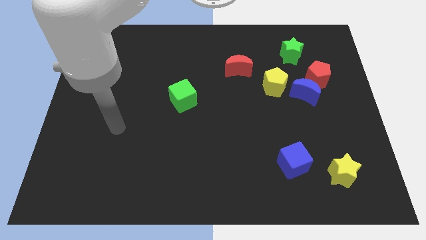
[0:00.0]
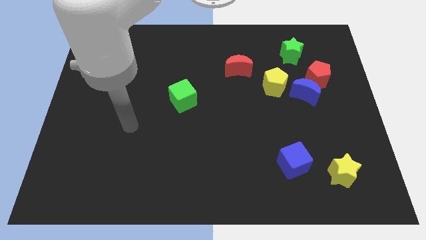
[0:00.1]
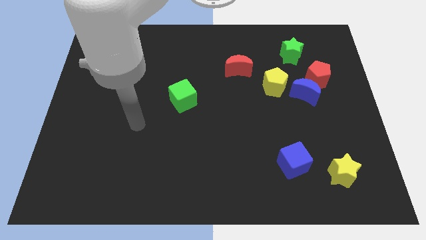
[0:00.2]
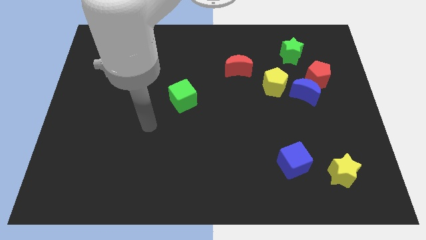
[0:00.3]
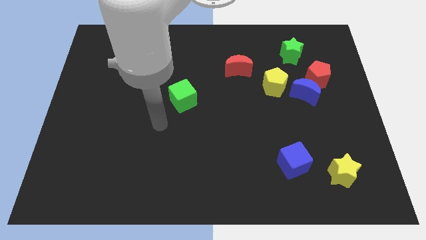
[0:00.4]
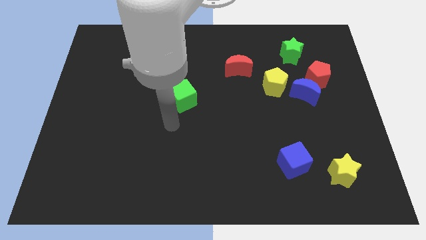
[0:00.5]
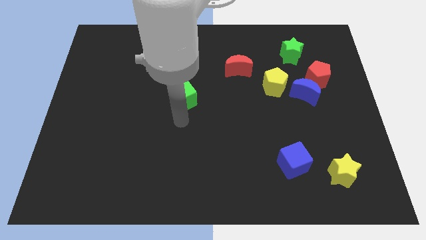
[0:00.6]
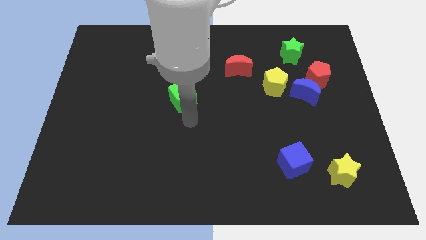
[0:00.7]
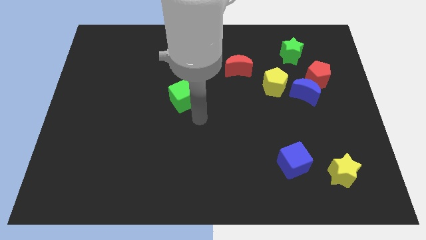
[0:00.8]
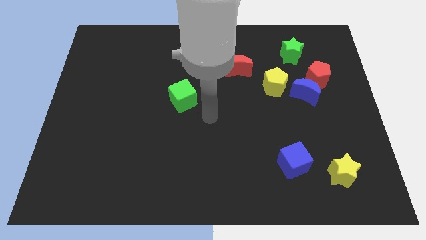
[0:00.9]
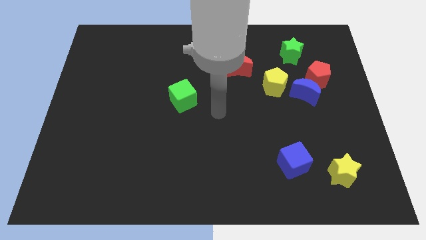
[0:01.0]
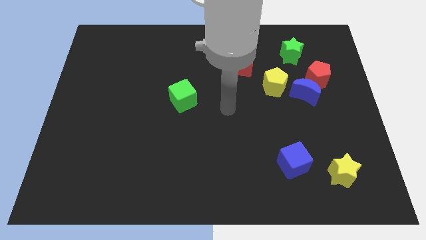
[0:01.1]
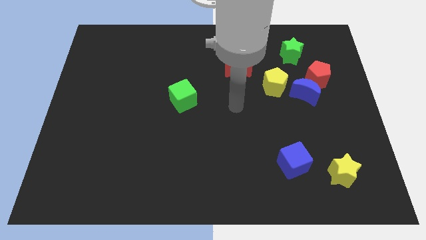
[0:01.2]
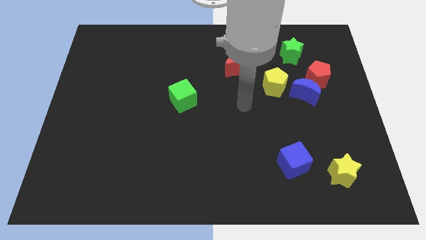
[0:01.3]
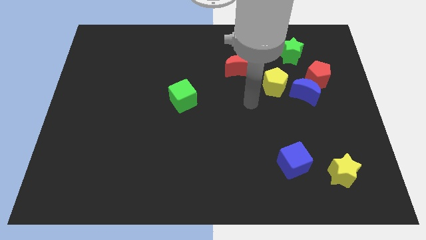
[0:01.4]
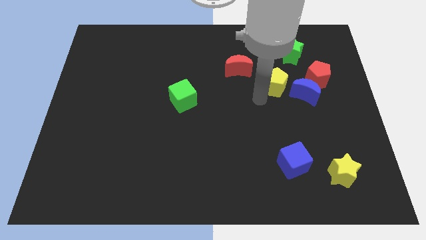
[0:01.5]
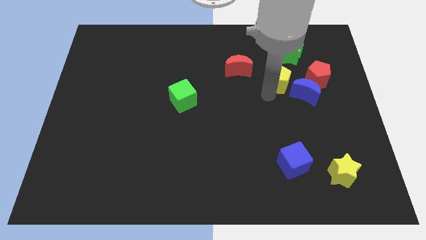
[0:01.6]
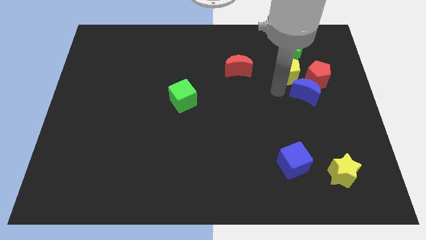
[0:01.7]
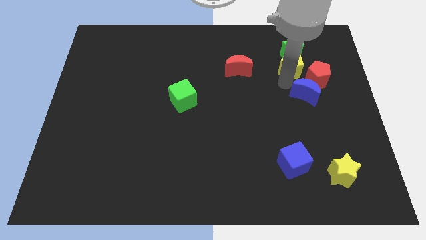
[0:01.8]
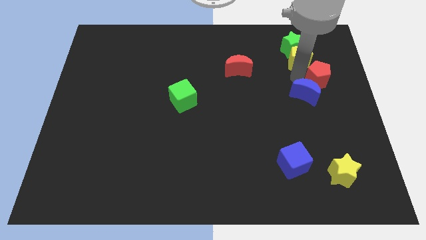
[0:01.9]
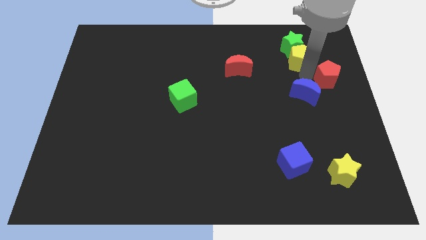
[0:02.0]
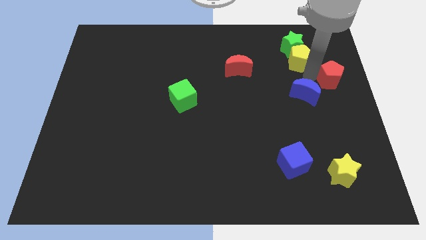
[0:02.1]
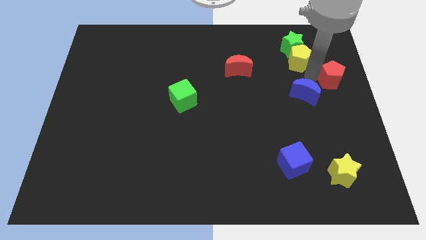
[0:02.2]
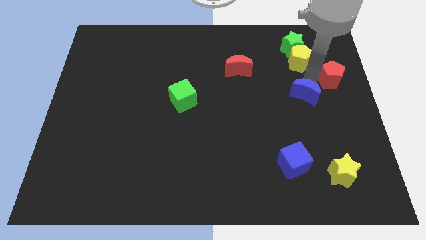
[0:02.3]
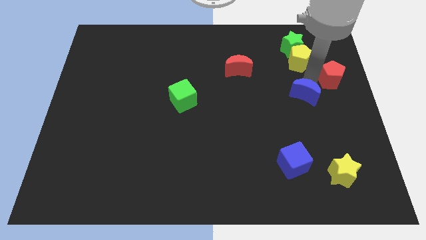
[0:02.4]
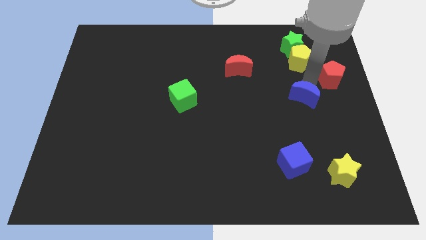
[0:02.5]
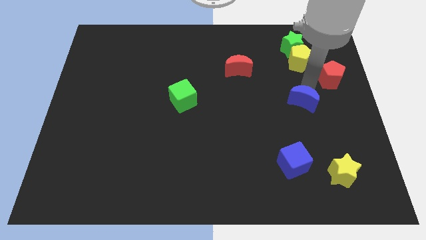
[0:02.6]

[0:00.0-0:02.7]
pull the blue moon apart from the red pentagon and yellow pentagon

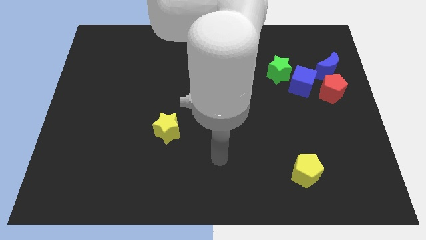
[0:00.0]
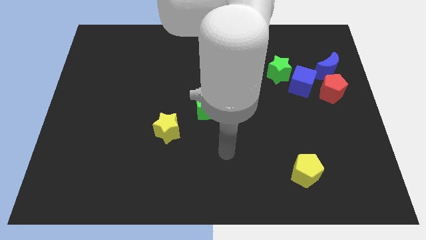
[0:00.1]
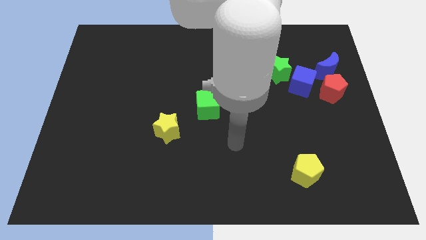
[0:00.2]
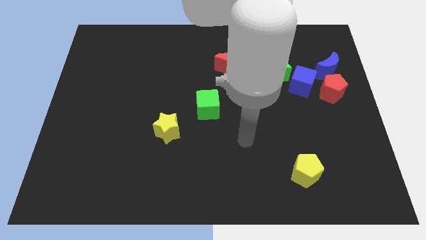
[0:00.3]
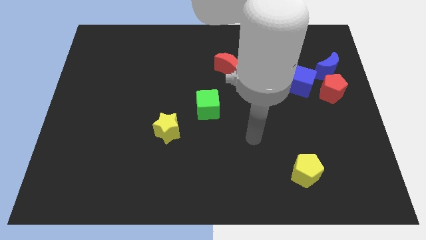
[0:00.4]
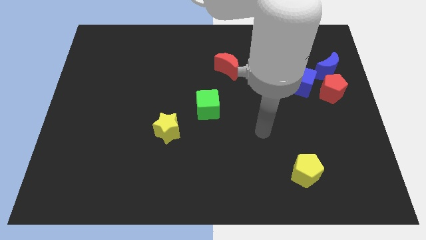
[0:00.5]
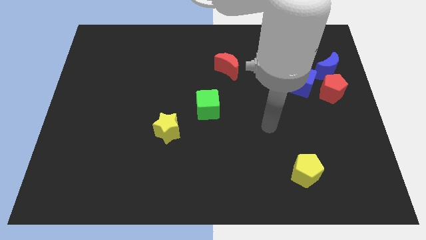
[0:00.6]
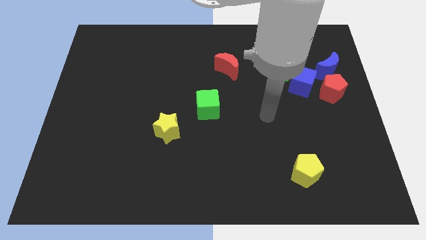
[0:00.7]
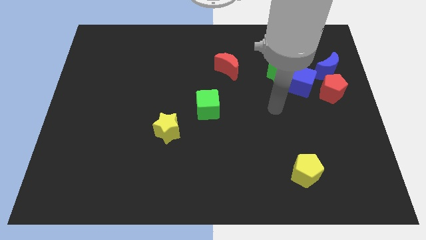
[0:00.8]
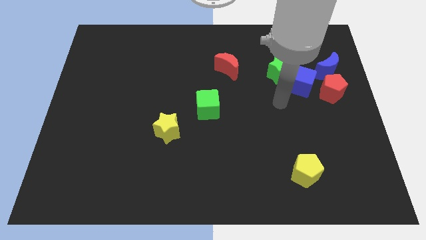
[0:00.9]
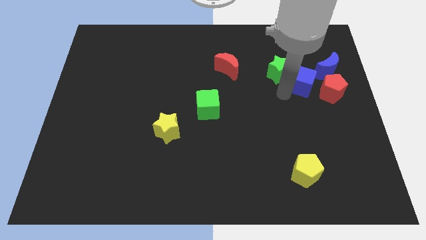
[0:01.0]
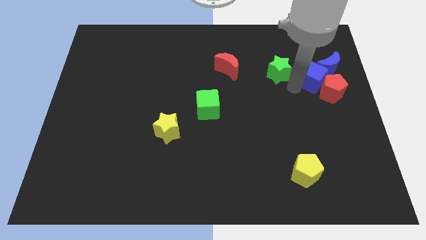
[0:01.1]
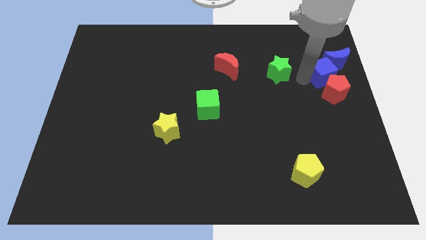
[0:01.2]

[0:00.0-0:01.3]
pull the green star apart from the blue cube

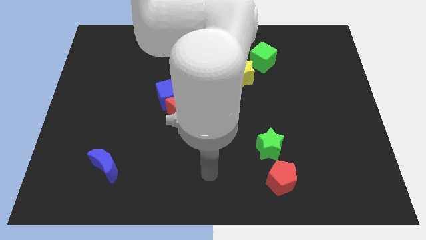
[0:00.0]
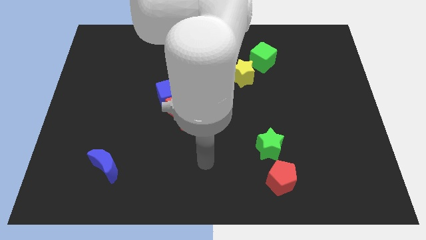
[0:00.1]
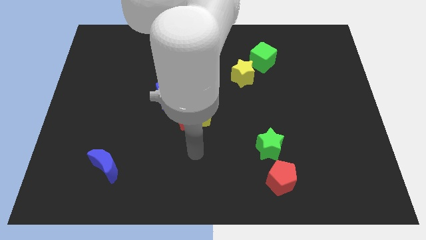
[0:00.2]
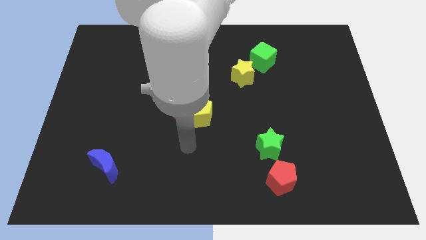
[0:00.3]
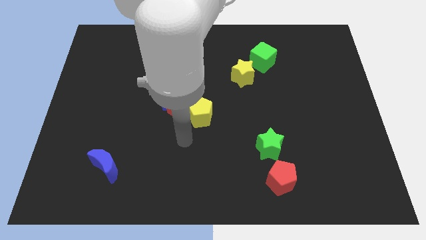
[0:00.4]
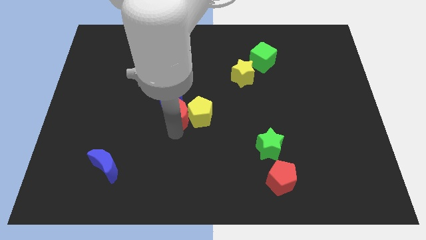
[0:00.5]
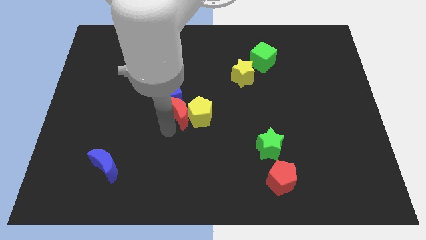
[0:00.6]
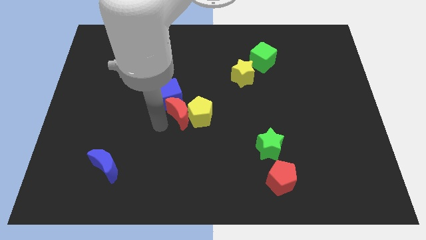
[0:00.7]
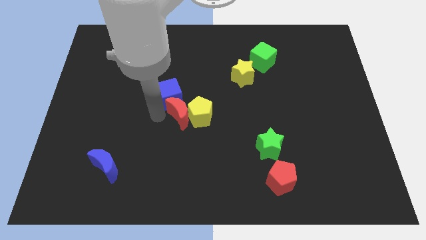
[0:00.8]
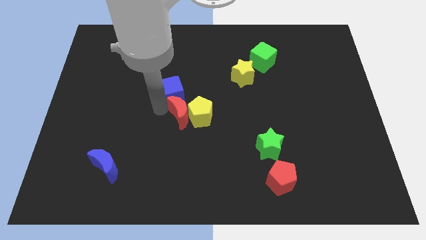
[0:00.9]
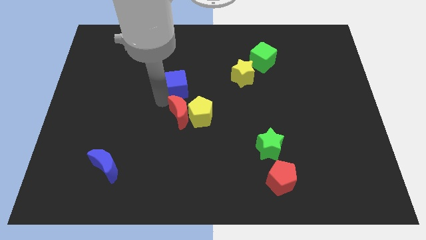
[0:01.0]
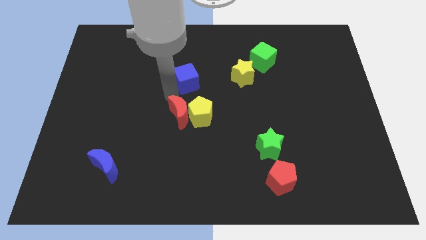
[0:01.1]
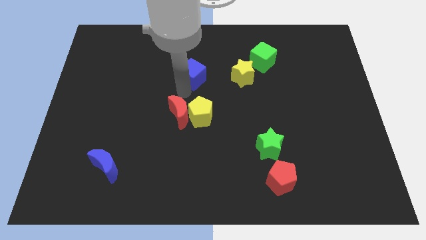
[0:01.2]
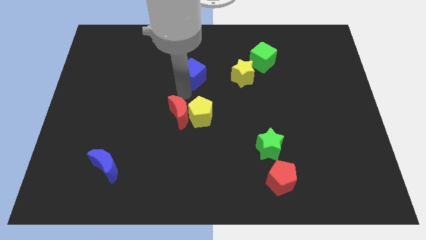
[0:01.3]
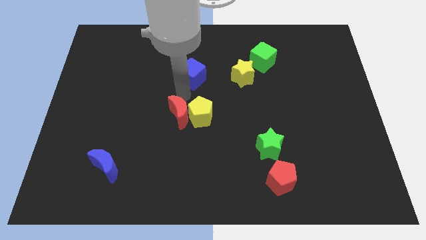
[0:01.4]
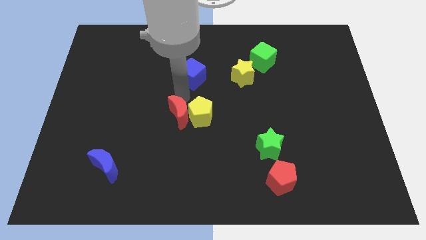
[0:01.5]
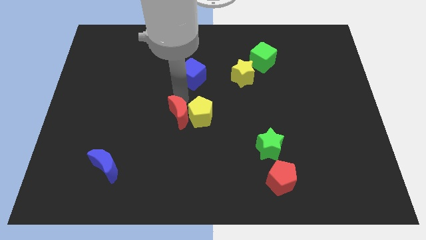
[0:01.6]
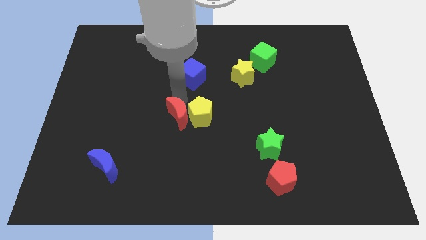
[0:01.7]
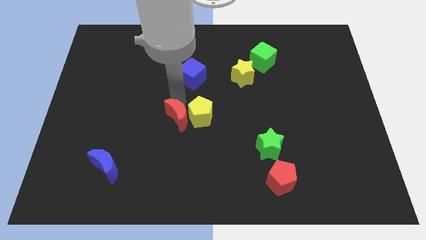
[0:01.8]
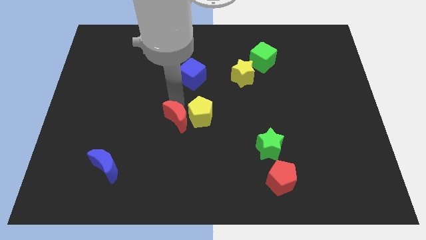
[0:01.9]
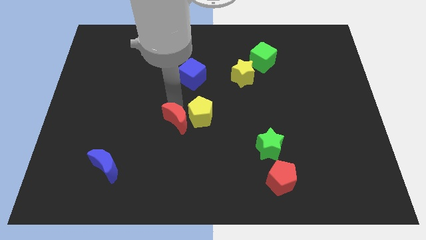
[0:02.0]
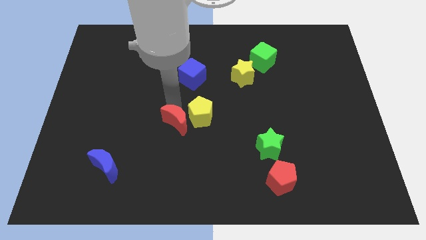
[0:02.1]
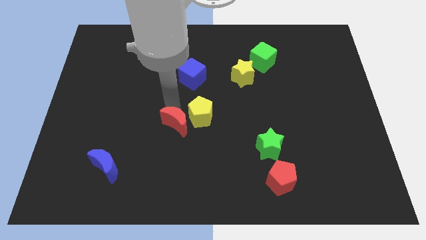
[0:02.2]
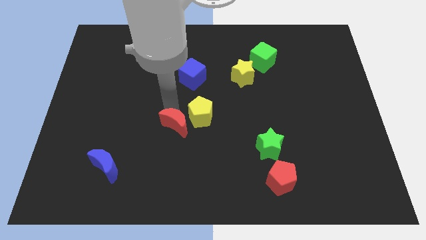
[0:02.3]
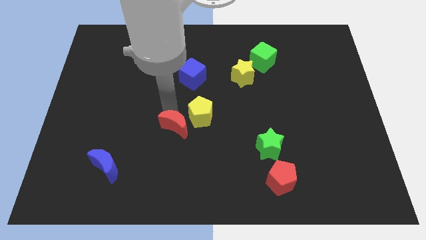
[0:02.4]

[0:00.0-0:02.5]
separate the red moon from the yellow pentagon and blue cube

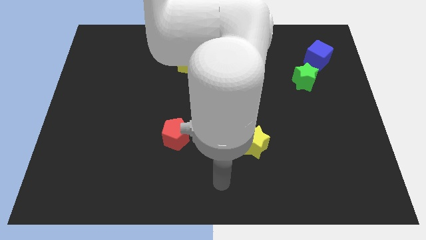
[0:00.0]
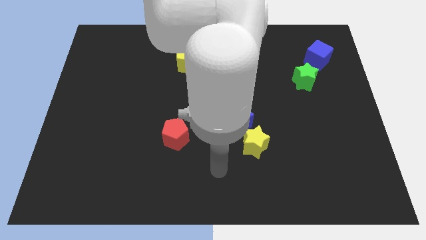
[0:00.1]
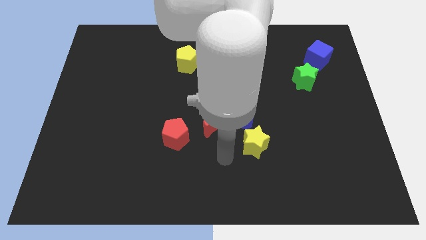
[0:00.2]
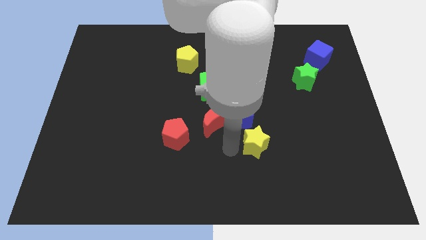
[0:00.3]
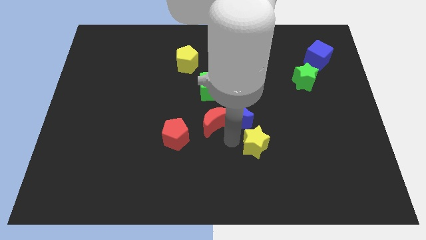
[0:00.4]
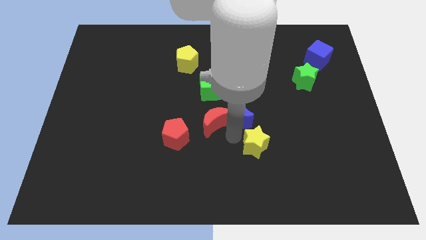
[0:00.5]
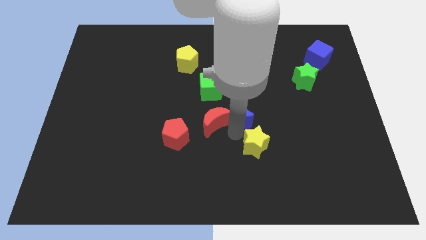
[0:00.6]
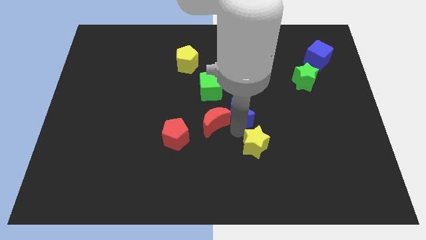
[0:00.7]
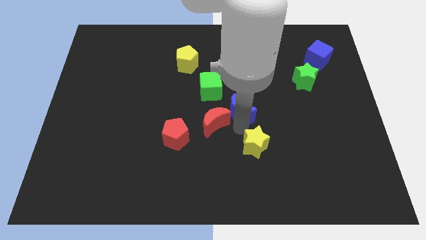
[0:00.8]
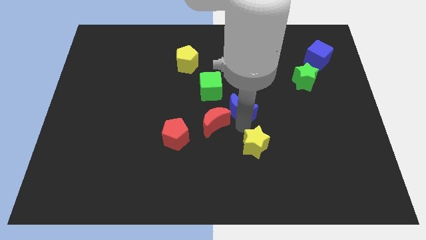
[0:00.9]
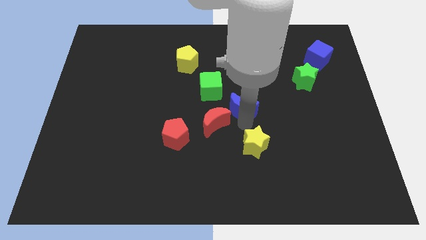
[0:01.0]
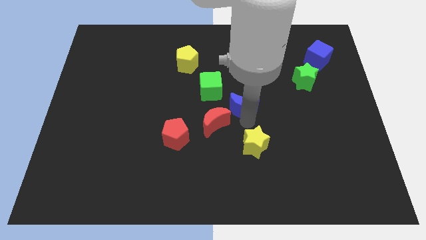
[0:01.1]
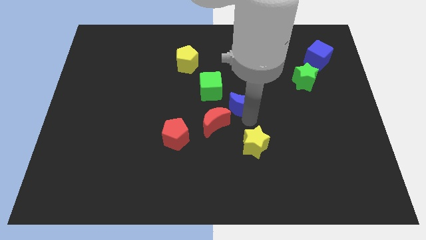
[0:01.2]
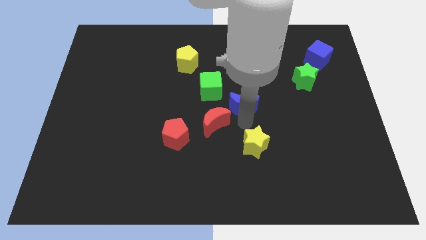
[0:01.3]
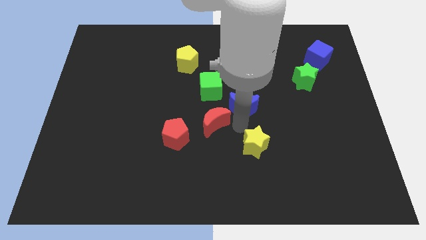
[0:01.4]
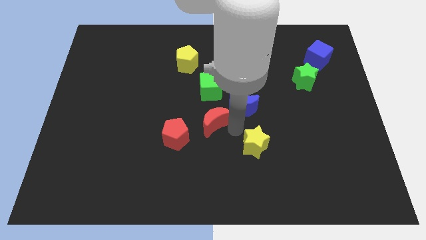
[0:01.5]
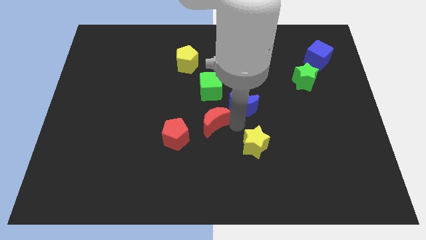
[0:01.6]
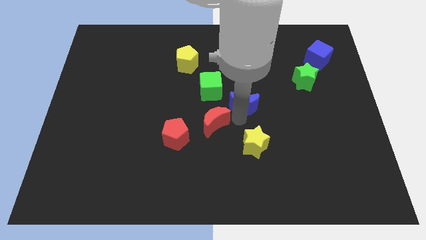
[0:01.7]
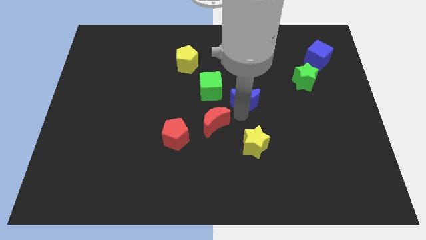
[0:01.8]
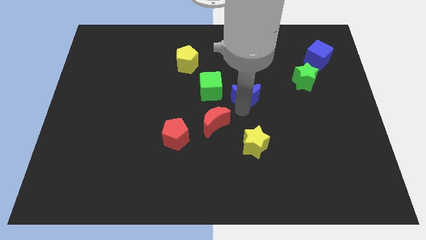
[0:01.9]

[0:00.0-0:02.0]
separate the blue moon from the red moon and yellow star

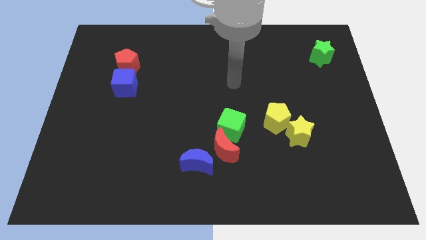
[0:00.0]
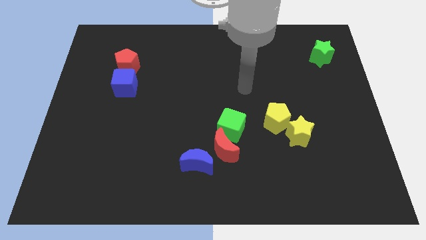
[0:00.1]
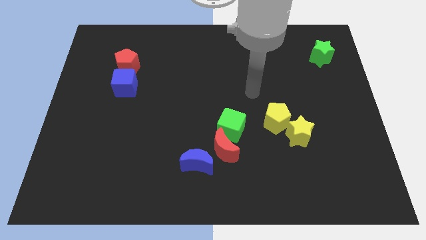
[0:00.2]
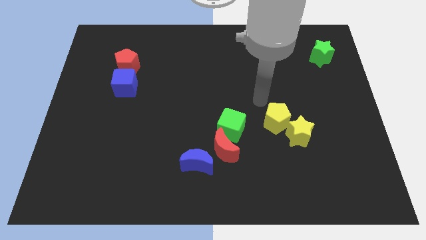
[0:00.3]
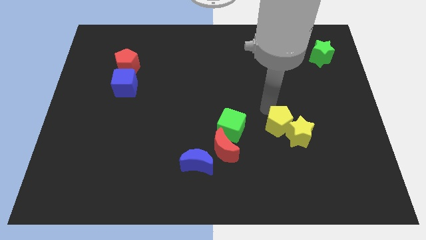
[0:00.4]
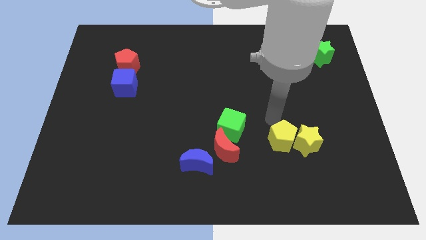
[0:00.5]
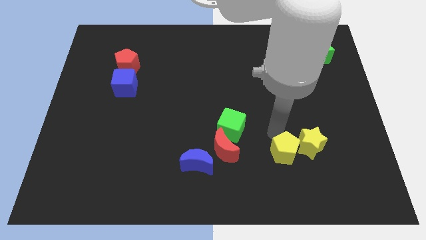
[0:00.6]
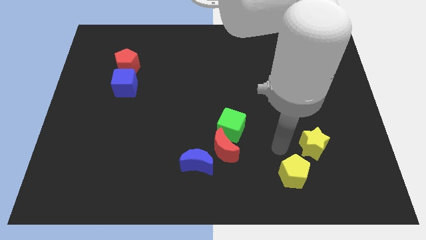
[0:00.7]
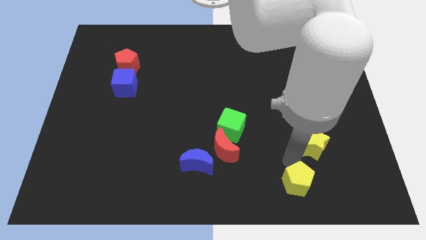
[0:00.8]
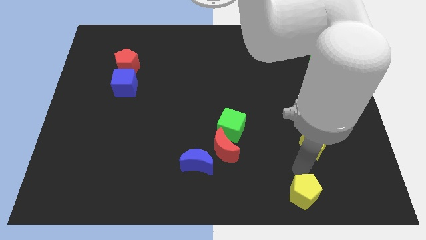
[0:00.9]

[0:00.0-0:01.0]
separate the yellow star from the yellow pentagon
